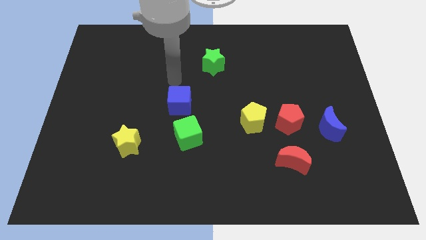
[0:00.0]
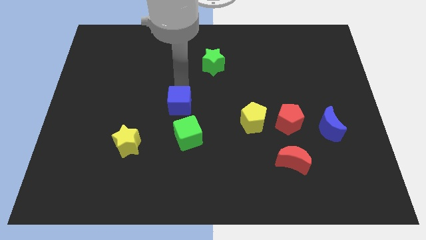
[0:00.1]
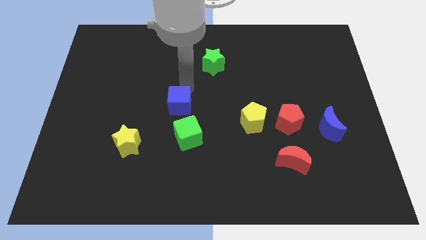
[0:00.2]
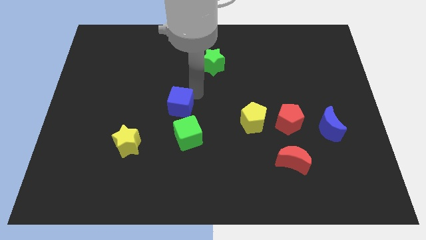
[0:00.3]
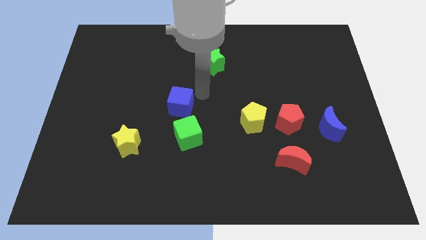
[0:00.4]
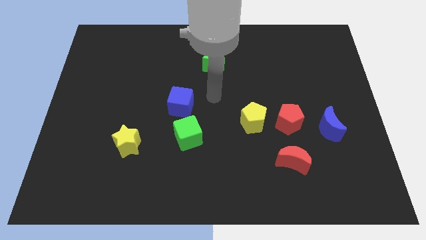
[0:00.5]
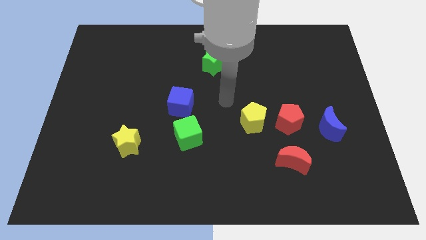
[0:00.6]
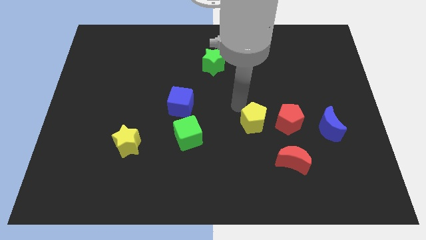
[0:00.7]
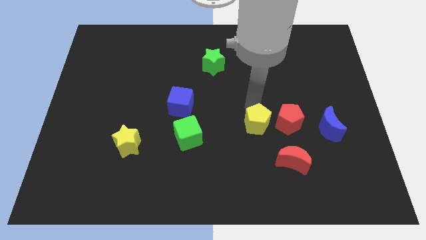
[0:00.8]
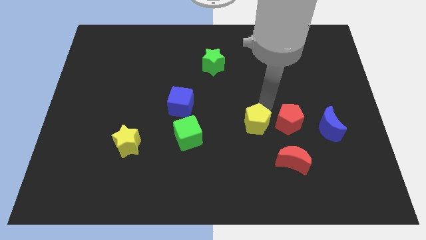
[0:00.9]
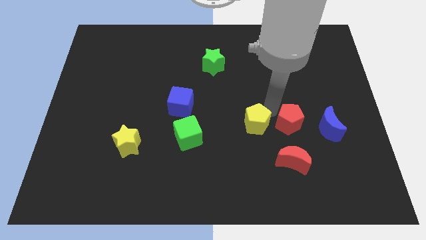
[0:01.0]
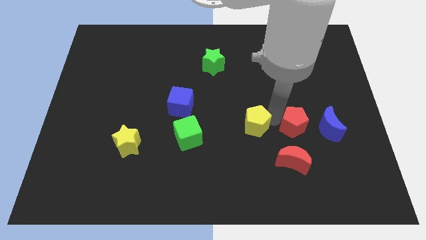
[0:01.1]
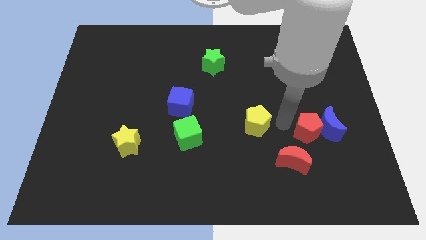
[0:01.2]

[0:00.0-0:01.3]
pull the yellow pentagon apart from the red pentagon

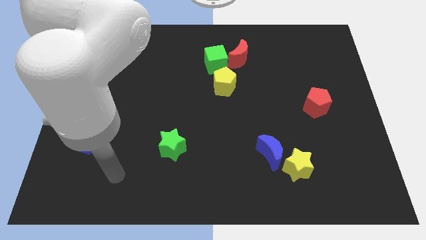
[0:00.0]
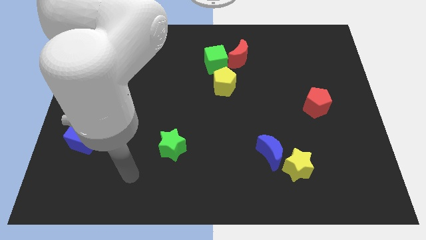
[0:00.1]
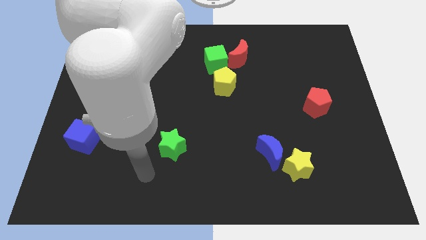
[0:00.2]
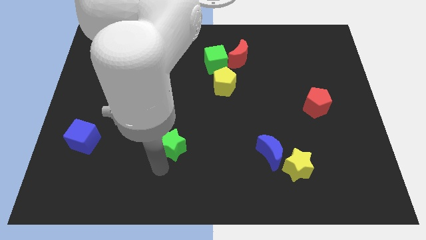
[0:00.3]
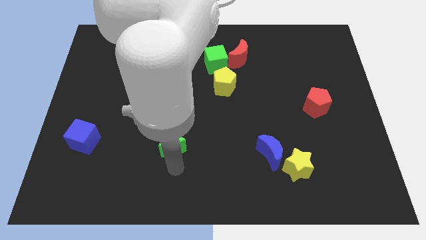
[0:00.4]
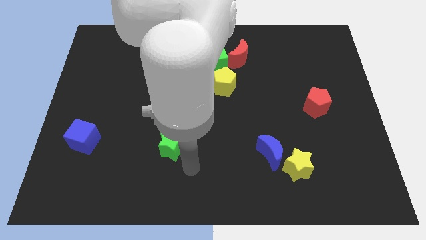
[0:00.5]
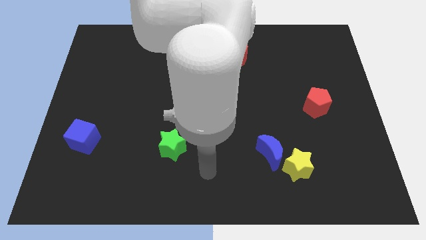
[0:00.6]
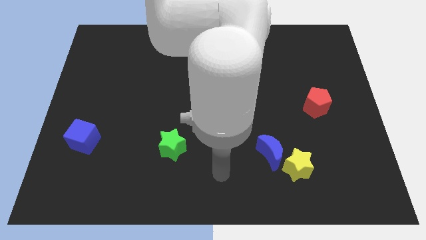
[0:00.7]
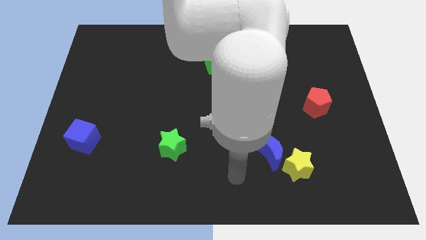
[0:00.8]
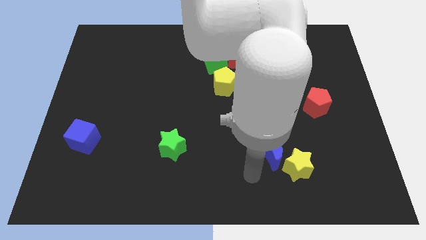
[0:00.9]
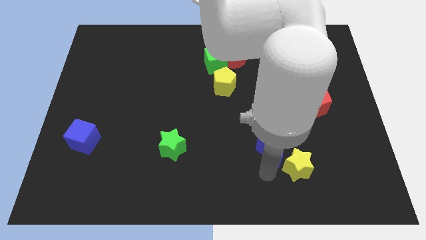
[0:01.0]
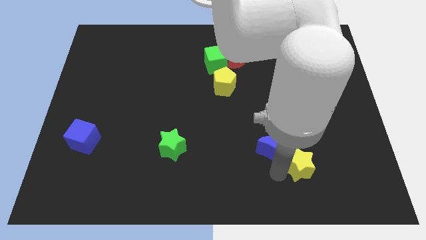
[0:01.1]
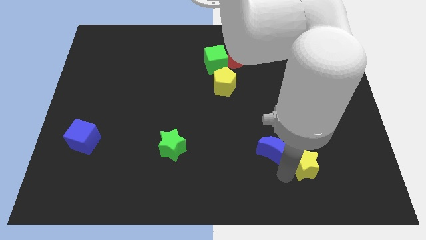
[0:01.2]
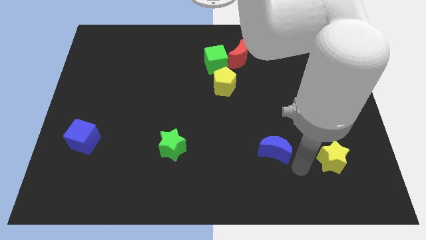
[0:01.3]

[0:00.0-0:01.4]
separate the blue moon from the yellow star

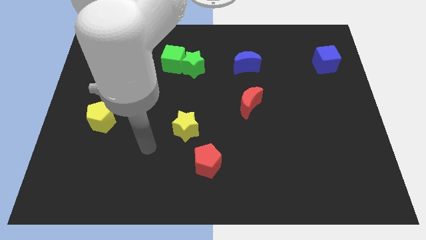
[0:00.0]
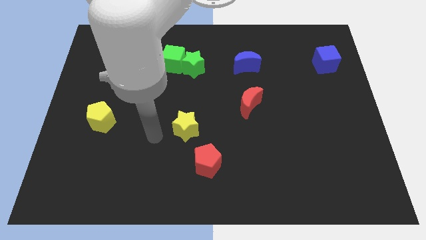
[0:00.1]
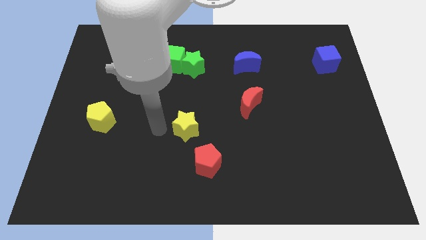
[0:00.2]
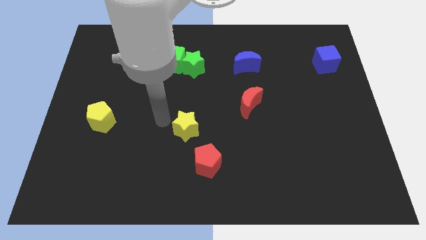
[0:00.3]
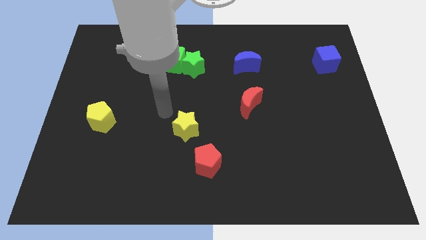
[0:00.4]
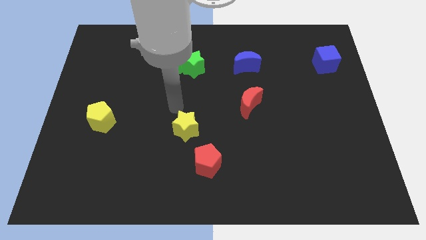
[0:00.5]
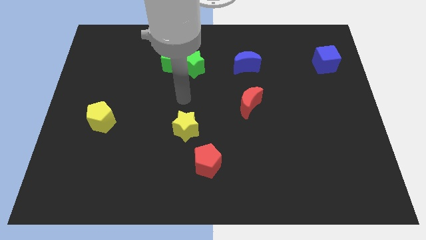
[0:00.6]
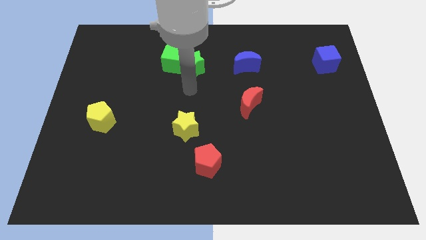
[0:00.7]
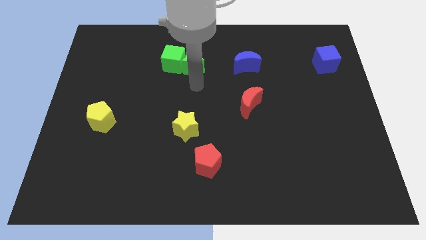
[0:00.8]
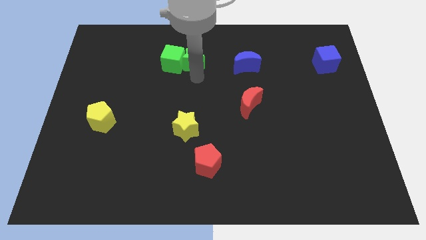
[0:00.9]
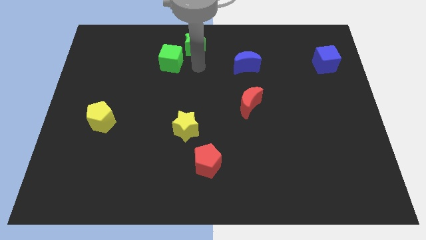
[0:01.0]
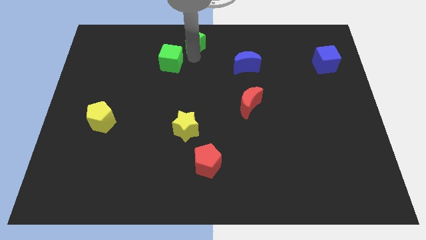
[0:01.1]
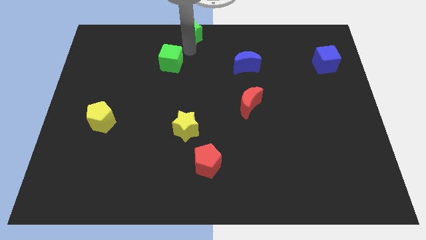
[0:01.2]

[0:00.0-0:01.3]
move the green cube away from the green star

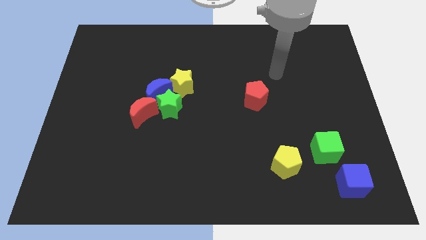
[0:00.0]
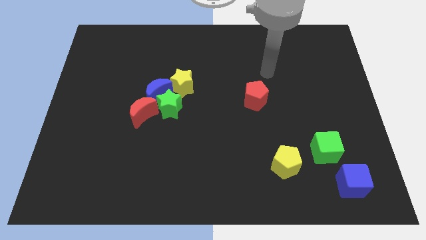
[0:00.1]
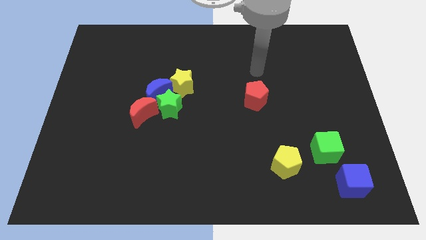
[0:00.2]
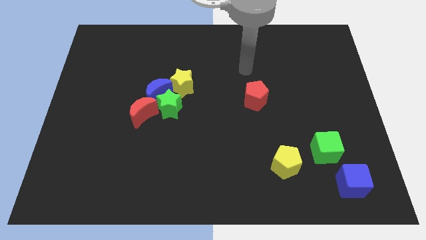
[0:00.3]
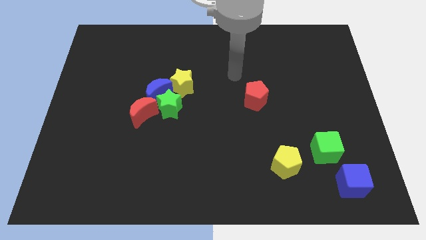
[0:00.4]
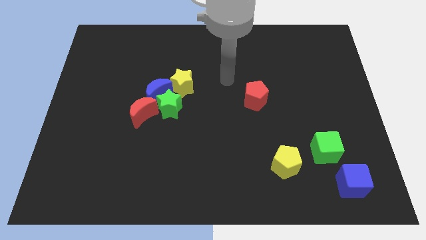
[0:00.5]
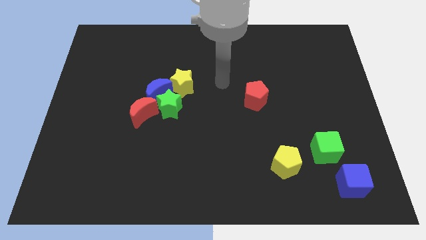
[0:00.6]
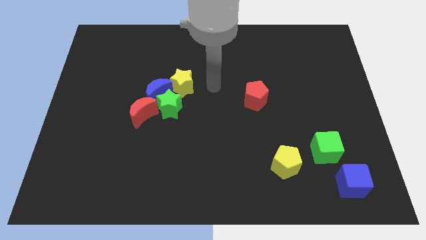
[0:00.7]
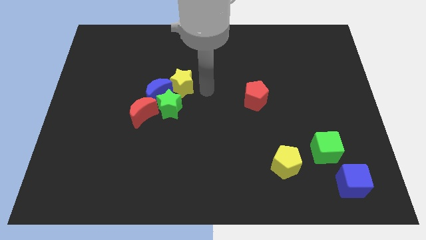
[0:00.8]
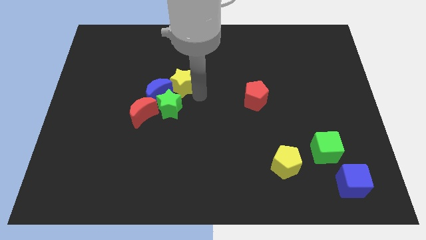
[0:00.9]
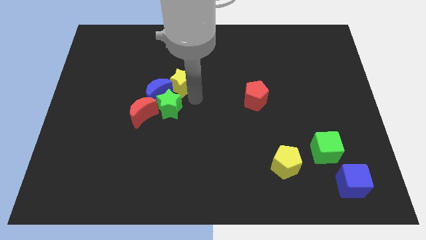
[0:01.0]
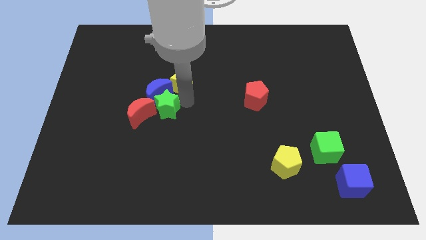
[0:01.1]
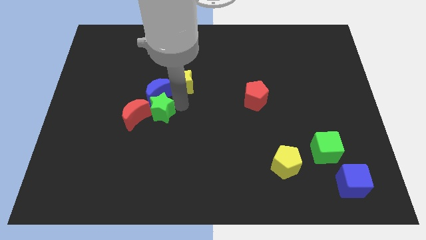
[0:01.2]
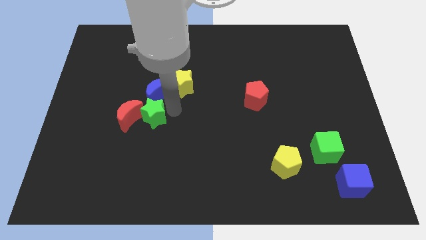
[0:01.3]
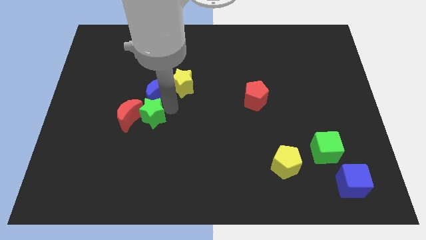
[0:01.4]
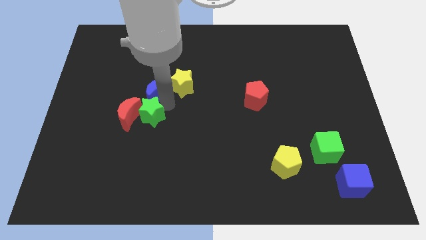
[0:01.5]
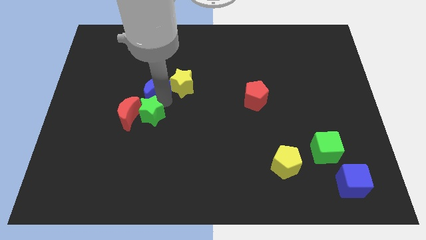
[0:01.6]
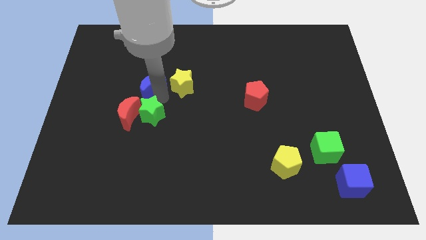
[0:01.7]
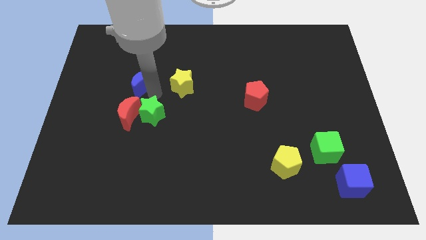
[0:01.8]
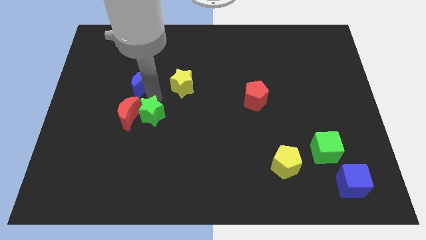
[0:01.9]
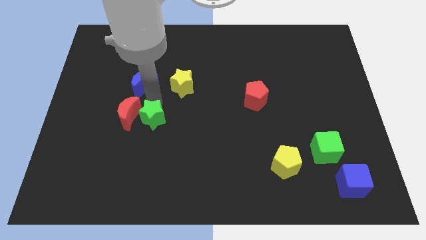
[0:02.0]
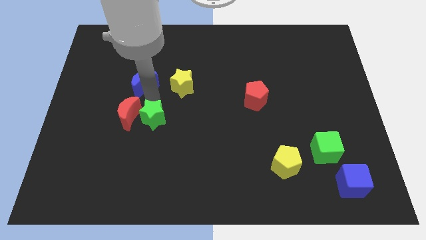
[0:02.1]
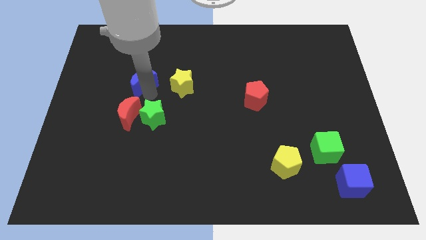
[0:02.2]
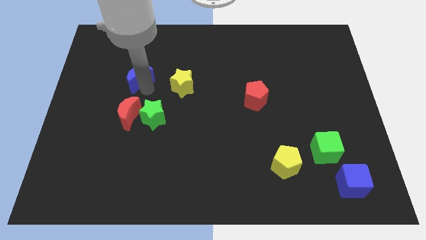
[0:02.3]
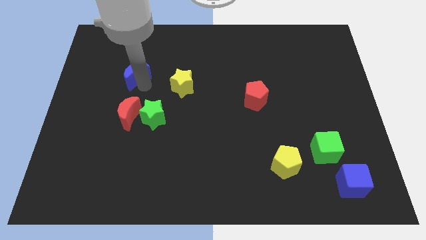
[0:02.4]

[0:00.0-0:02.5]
pull the blue moon apart from the green star, yellow star, and red moon

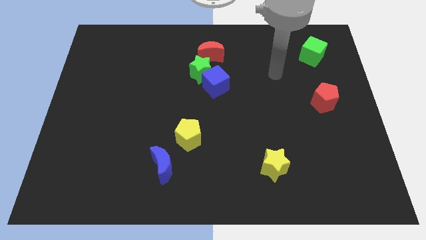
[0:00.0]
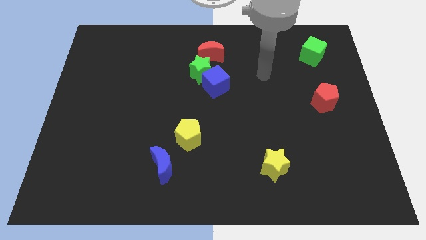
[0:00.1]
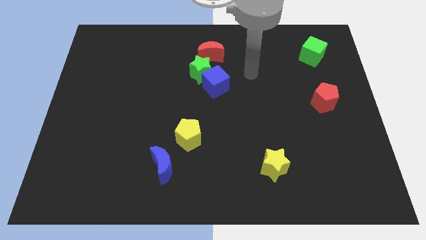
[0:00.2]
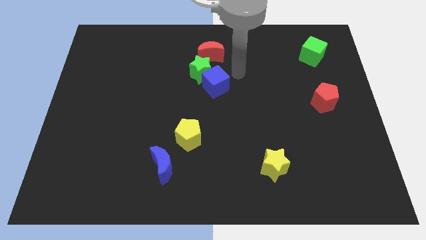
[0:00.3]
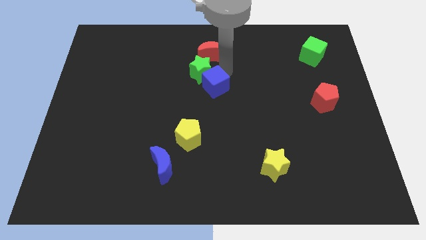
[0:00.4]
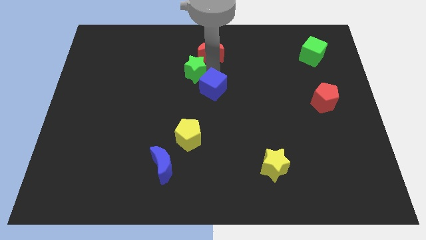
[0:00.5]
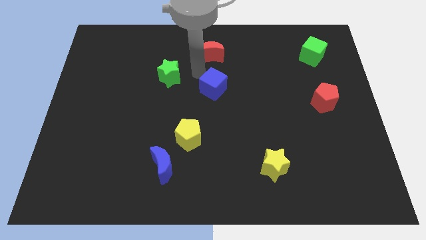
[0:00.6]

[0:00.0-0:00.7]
move the blue cube away from the green star

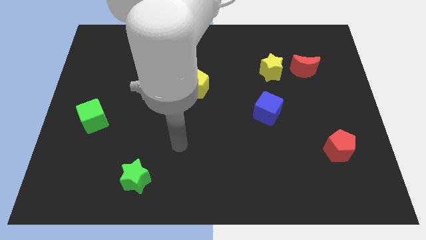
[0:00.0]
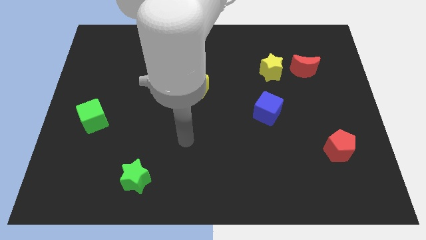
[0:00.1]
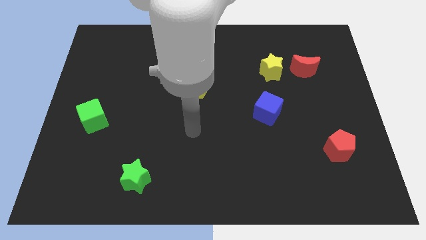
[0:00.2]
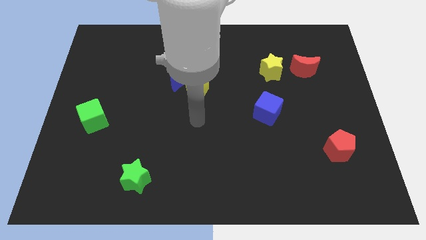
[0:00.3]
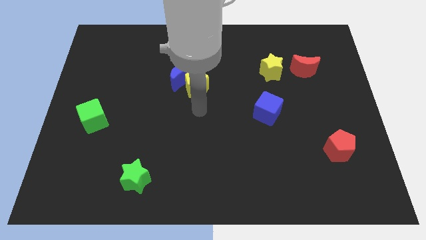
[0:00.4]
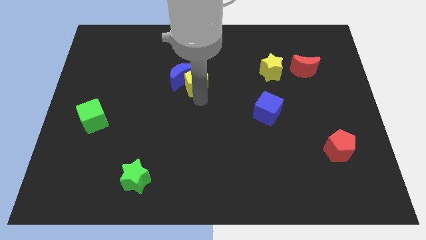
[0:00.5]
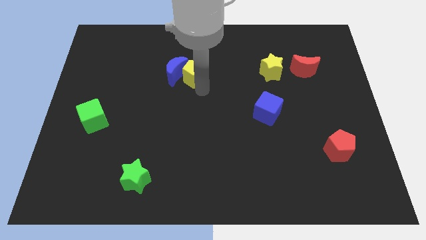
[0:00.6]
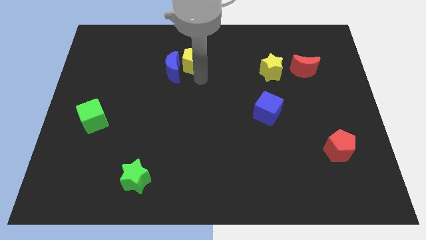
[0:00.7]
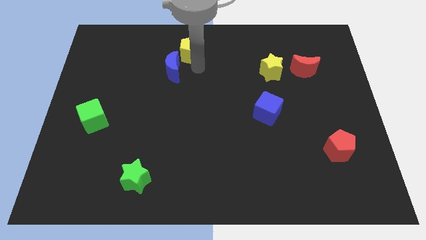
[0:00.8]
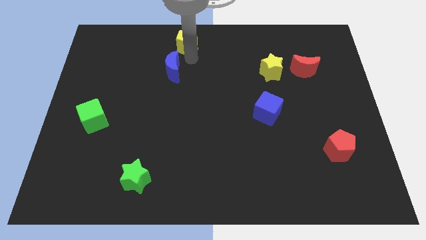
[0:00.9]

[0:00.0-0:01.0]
move the blue moon away from the yellow pentagon

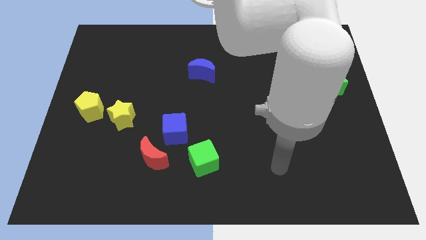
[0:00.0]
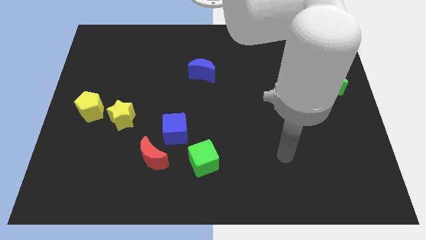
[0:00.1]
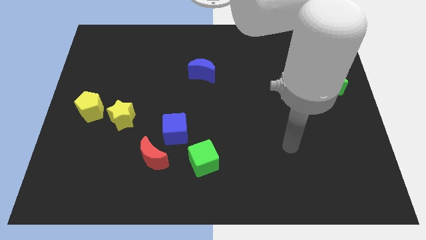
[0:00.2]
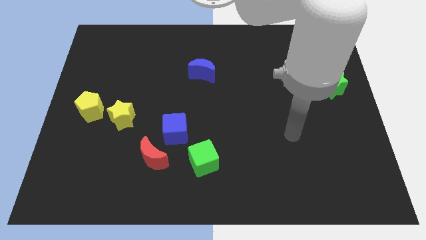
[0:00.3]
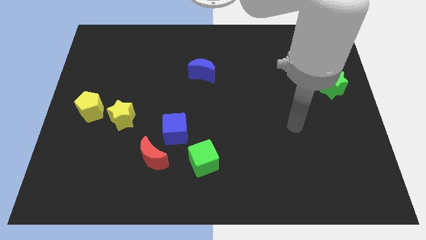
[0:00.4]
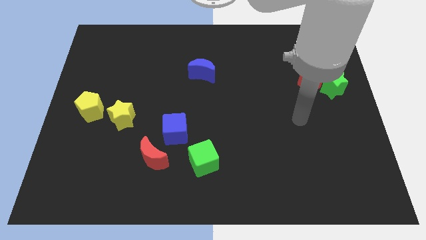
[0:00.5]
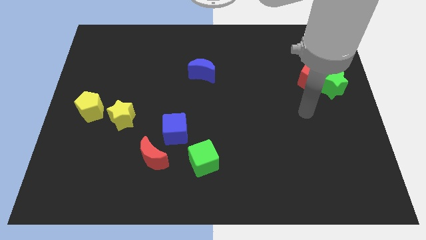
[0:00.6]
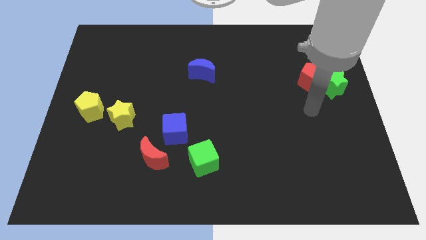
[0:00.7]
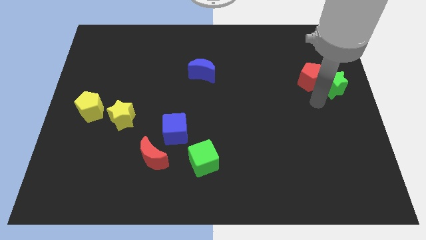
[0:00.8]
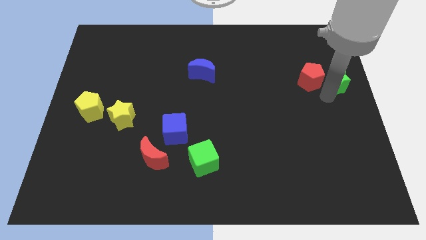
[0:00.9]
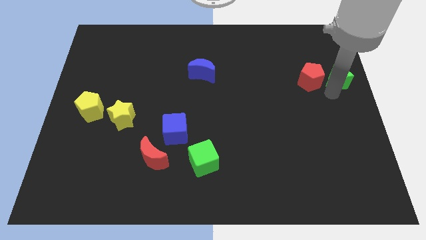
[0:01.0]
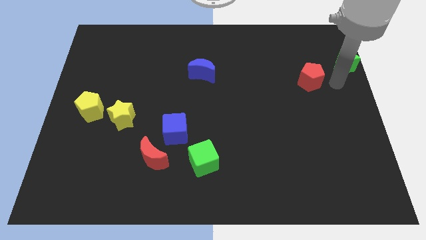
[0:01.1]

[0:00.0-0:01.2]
separate the red pentagon from the green star
